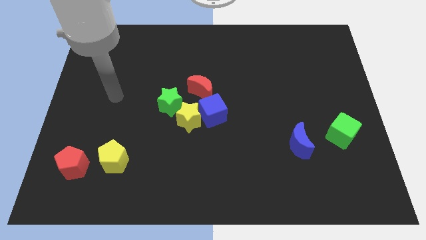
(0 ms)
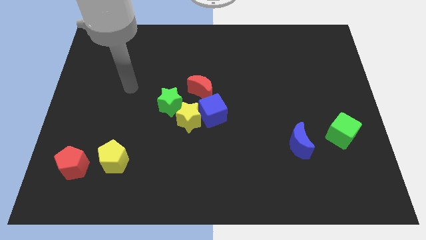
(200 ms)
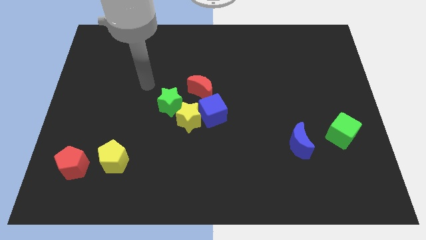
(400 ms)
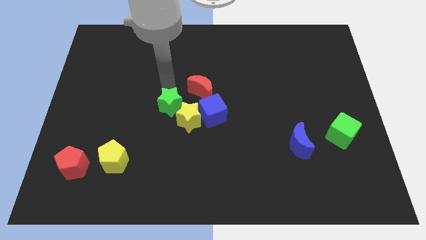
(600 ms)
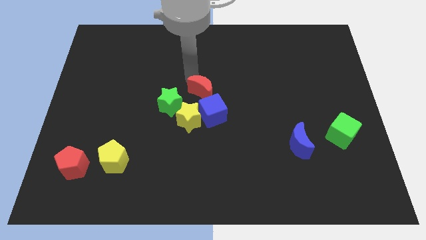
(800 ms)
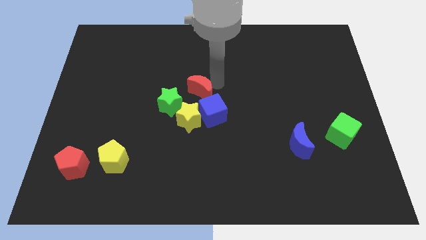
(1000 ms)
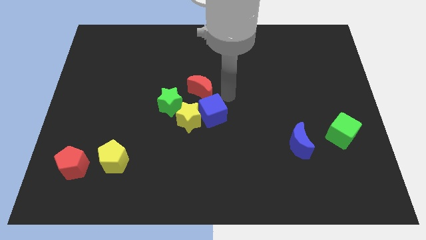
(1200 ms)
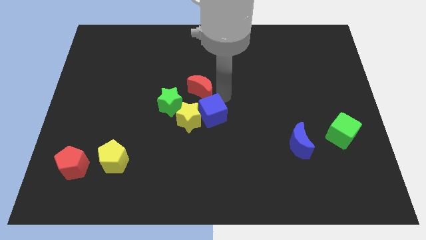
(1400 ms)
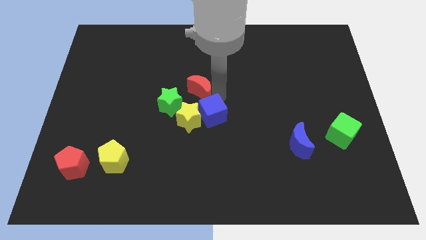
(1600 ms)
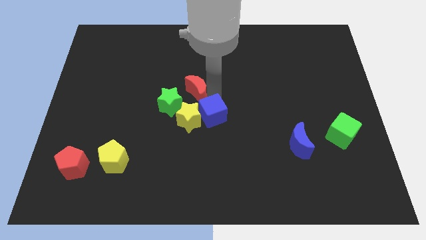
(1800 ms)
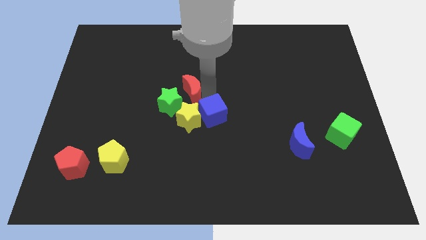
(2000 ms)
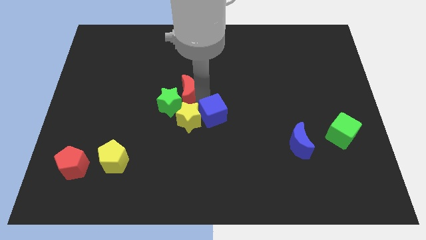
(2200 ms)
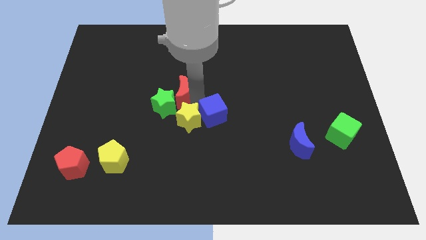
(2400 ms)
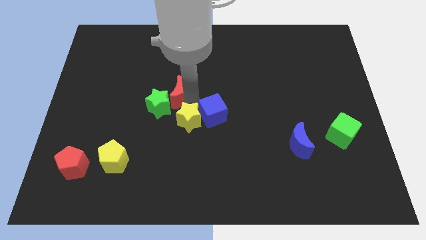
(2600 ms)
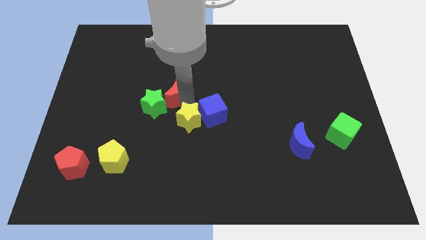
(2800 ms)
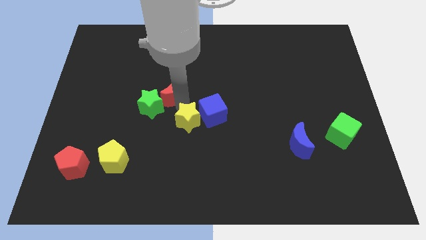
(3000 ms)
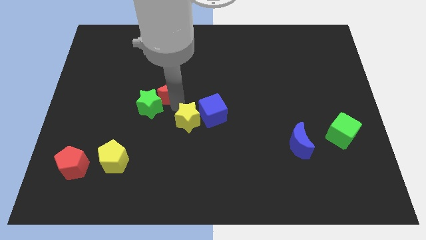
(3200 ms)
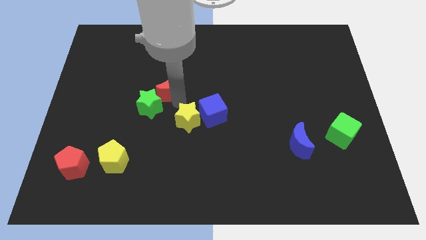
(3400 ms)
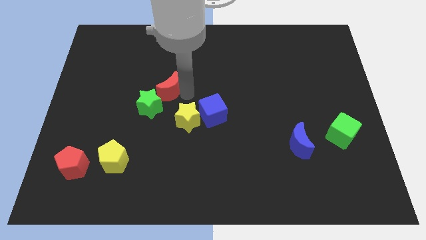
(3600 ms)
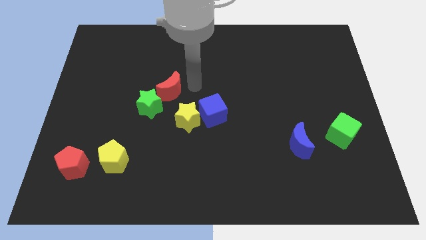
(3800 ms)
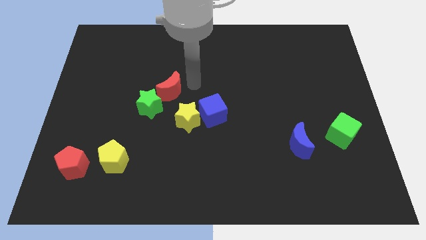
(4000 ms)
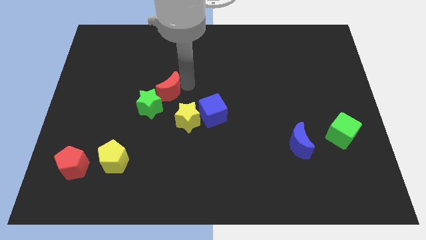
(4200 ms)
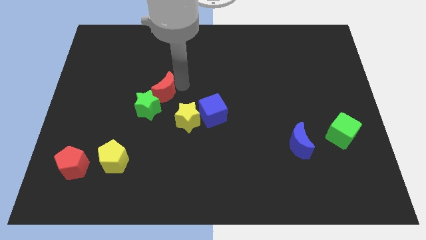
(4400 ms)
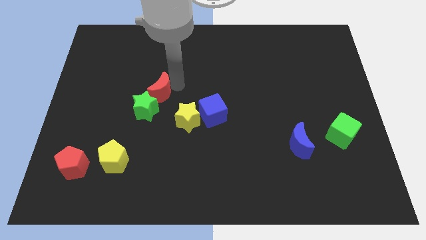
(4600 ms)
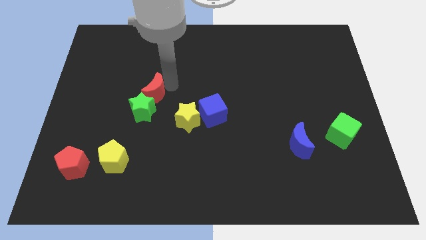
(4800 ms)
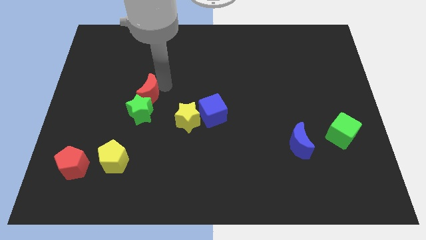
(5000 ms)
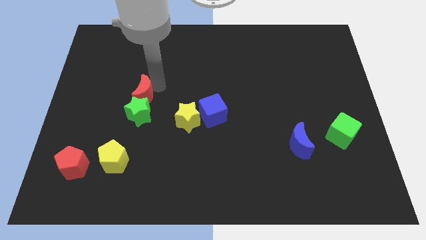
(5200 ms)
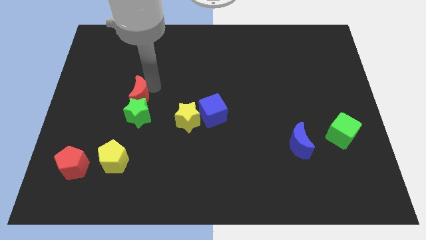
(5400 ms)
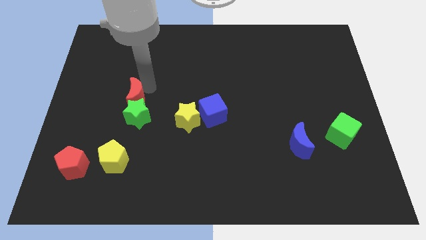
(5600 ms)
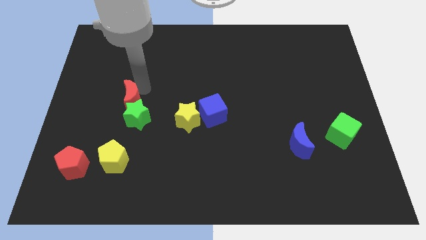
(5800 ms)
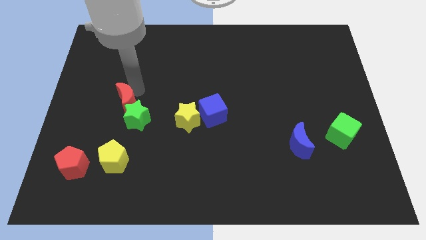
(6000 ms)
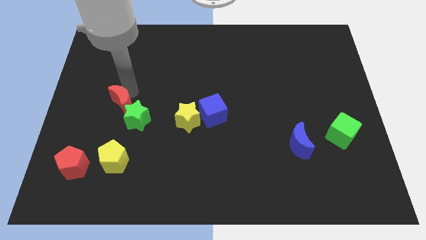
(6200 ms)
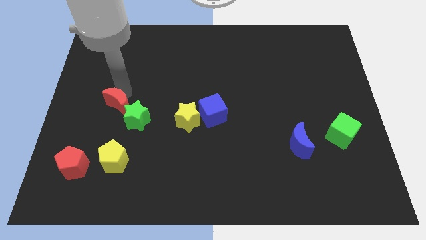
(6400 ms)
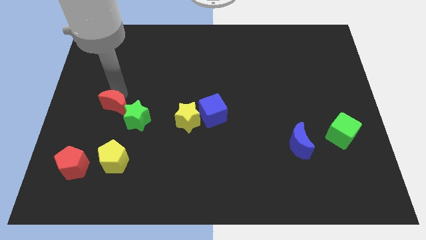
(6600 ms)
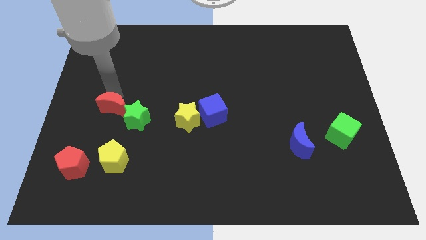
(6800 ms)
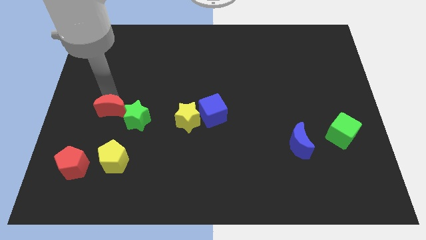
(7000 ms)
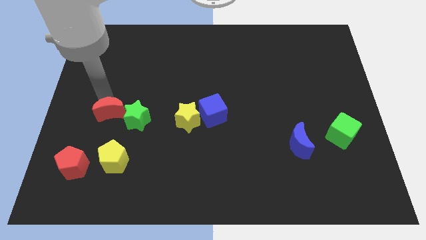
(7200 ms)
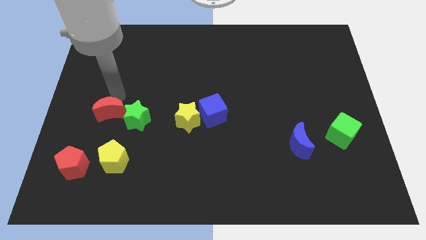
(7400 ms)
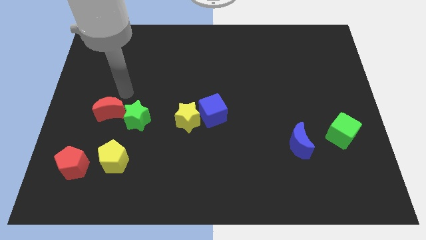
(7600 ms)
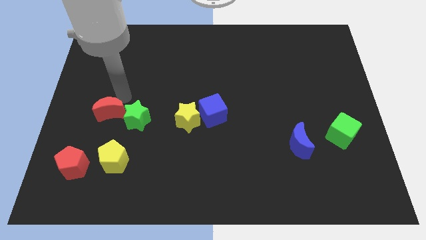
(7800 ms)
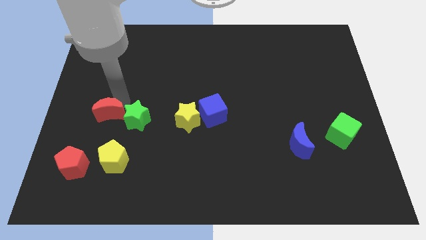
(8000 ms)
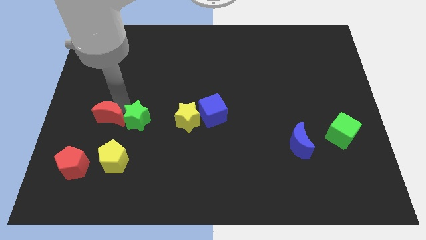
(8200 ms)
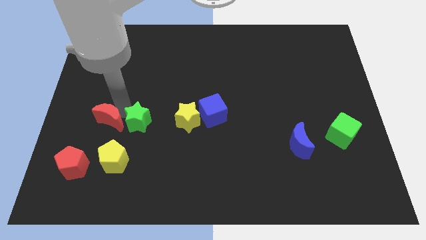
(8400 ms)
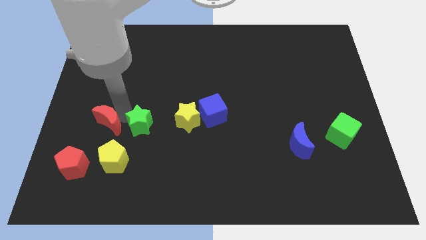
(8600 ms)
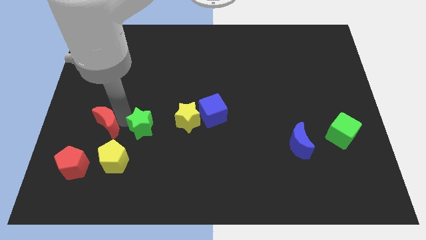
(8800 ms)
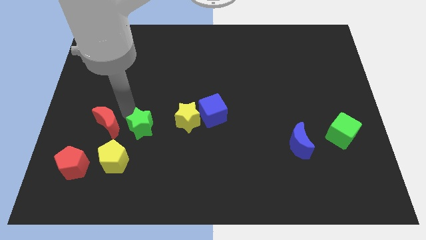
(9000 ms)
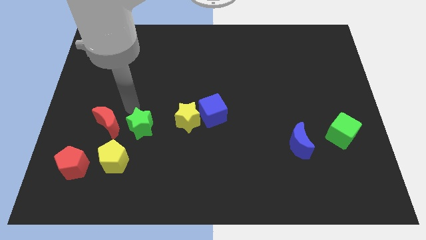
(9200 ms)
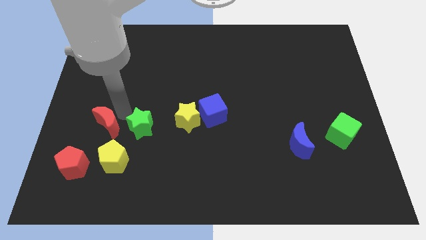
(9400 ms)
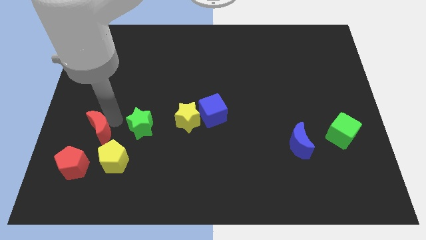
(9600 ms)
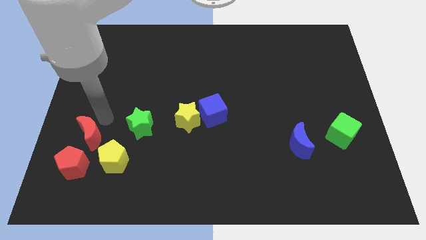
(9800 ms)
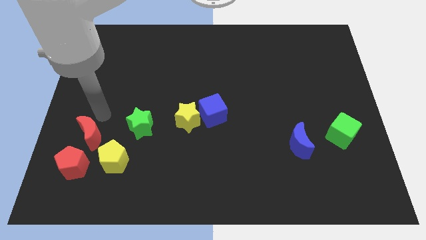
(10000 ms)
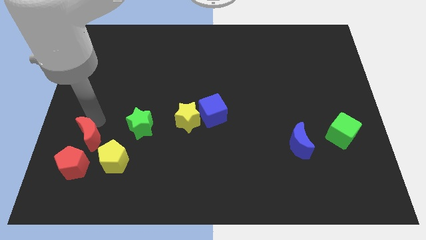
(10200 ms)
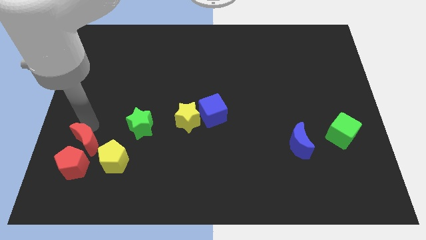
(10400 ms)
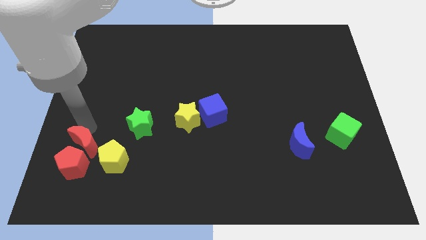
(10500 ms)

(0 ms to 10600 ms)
put the red moon next to the red pentagon

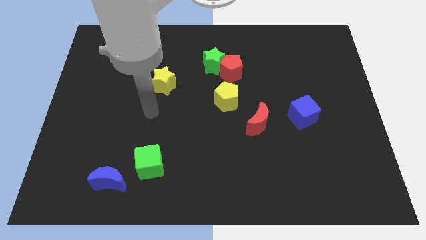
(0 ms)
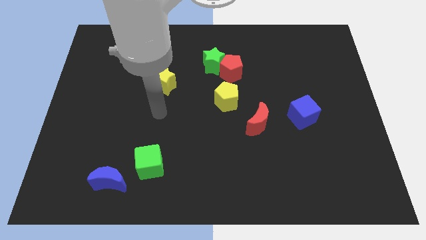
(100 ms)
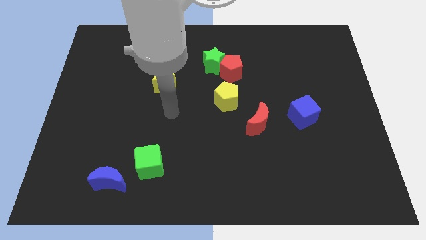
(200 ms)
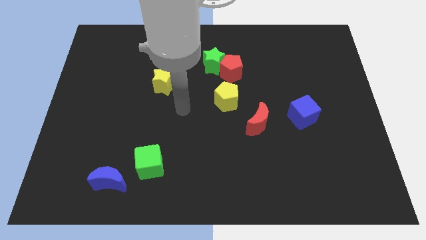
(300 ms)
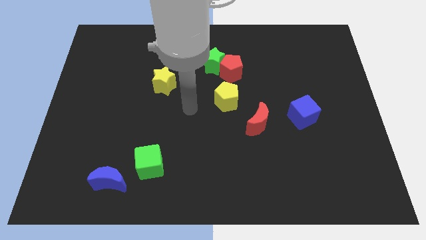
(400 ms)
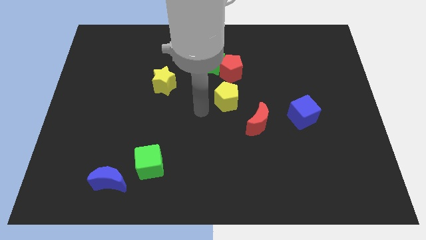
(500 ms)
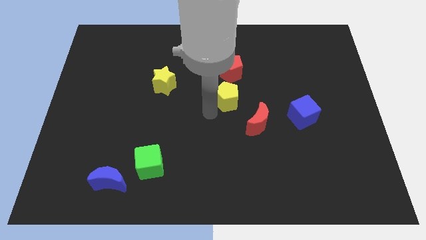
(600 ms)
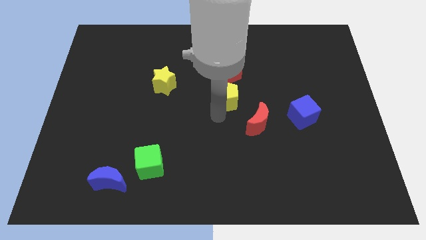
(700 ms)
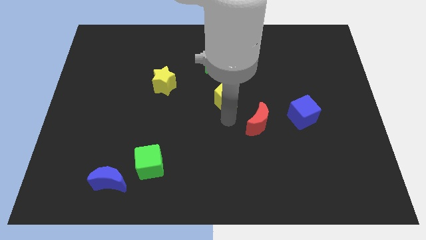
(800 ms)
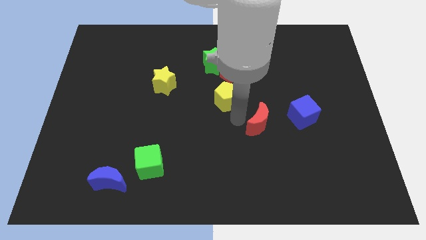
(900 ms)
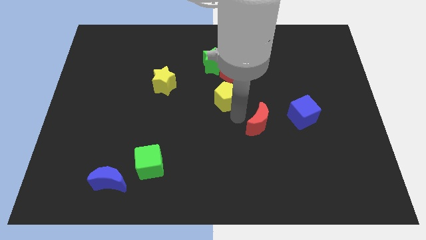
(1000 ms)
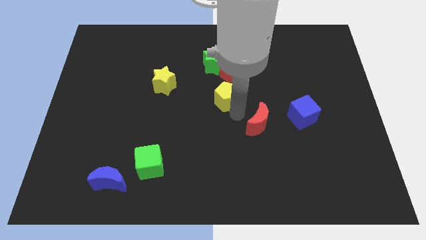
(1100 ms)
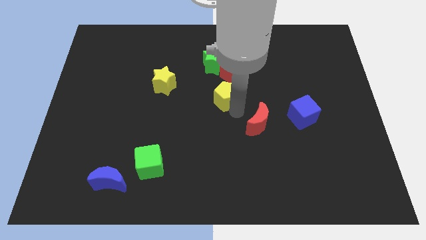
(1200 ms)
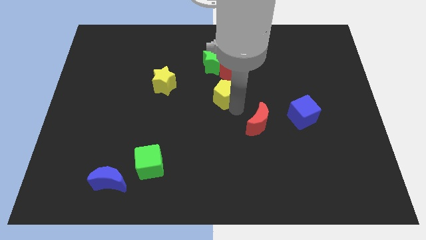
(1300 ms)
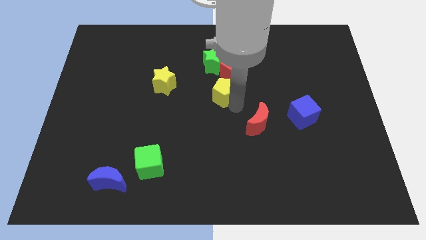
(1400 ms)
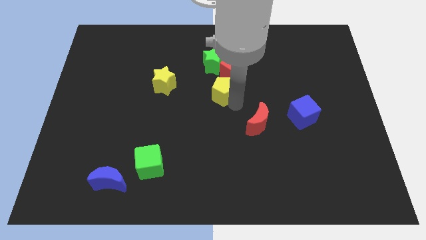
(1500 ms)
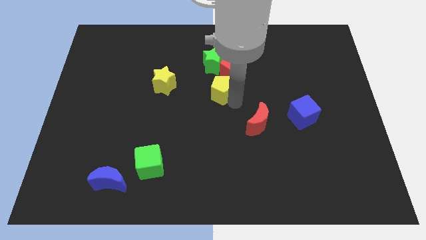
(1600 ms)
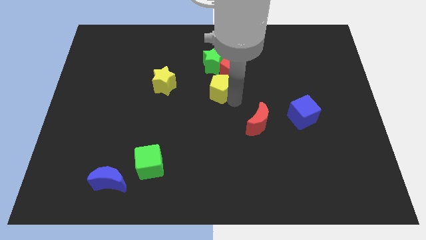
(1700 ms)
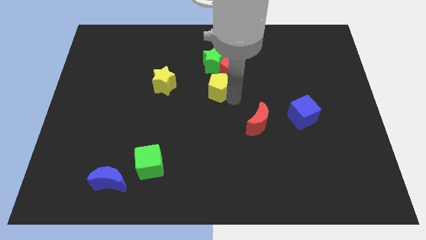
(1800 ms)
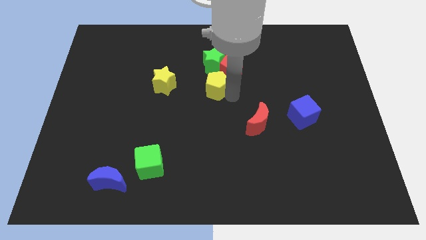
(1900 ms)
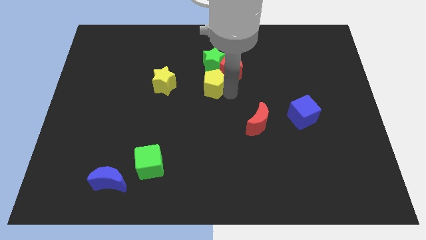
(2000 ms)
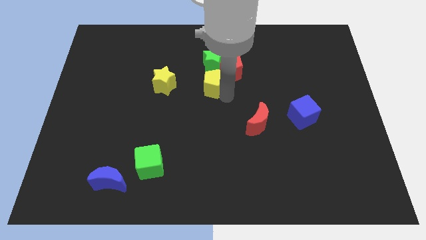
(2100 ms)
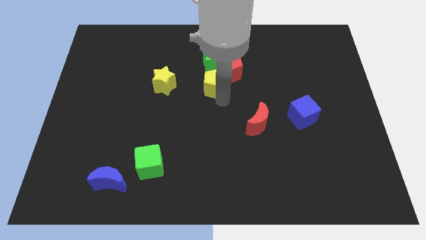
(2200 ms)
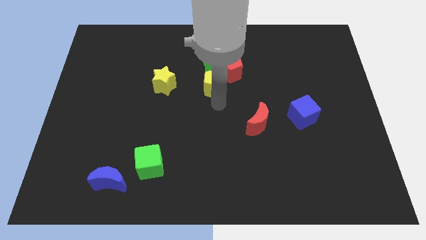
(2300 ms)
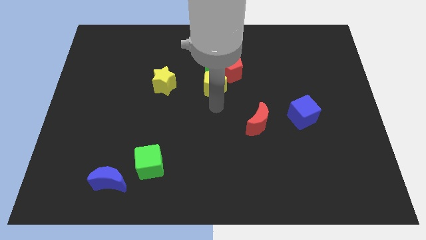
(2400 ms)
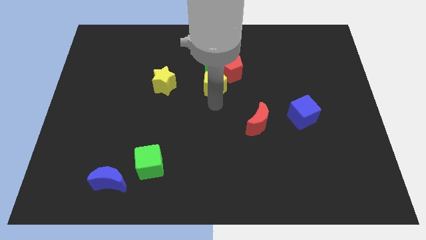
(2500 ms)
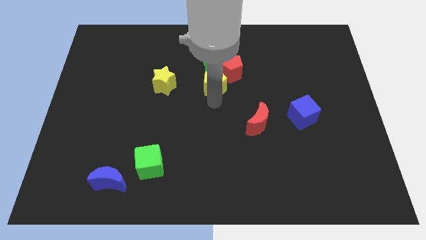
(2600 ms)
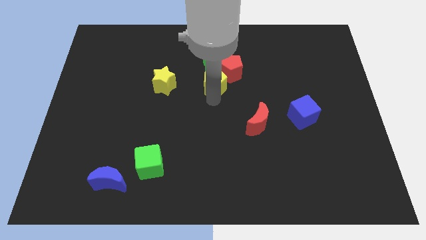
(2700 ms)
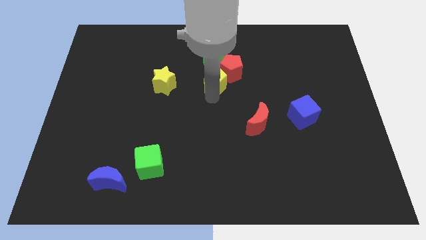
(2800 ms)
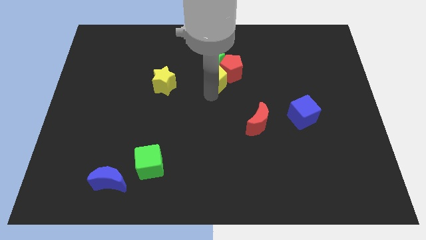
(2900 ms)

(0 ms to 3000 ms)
put the yellow pentagon towards the green star
